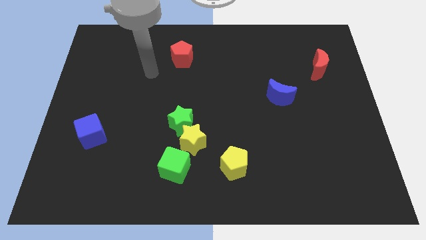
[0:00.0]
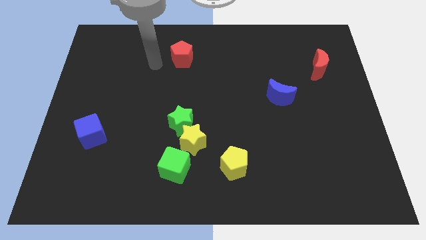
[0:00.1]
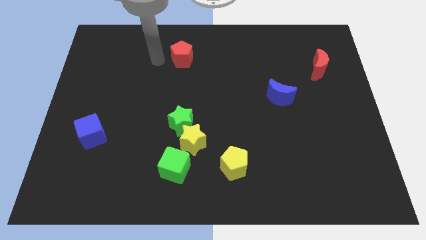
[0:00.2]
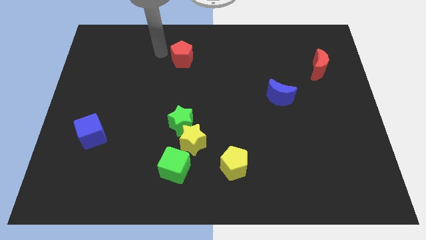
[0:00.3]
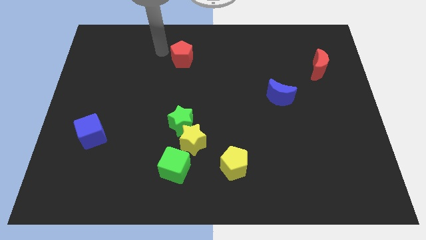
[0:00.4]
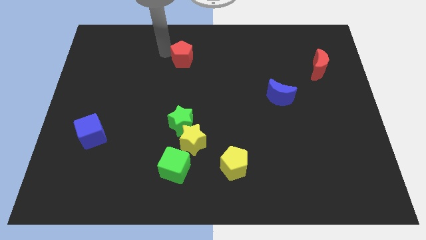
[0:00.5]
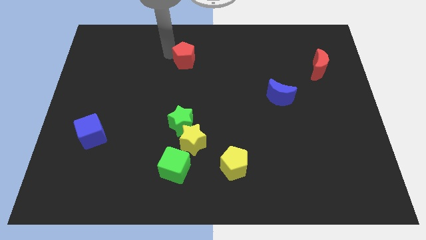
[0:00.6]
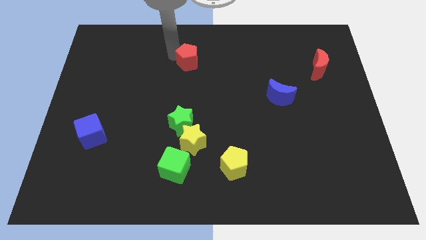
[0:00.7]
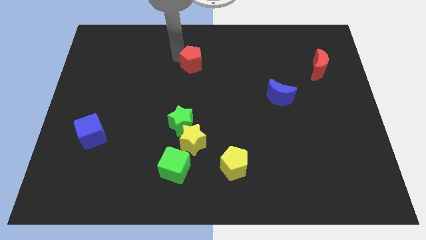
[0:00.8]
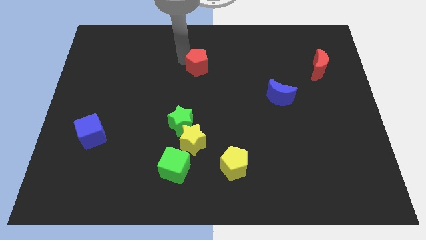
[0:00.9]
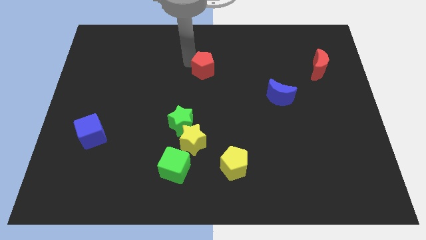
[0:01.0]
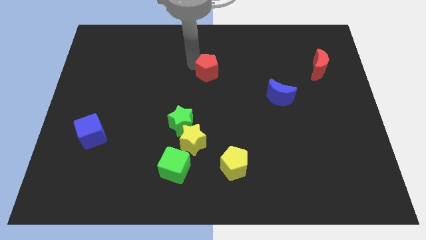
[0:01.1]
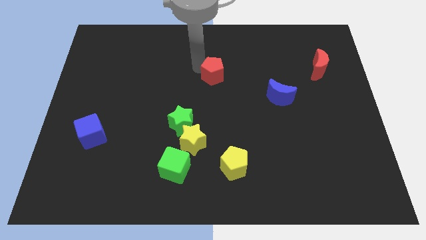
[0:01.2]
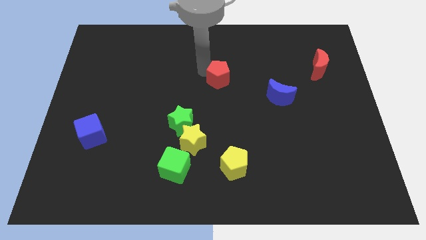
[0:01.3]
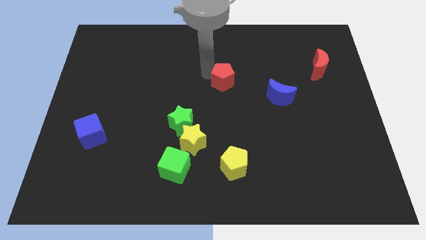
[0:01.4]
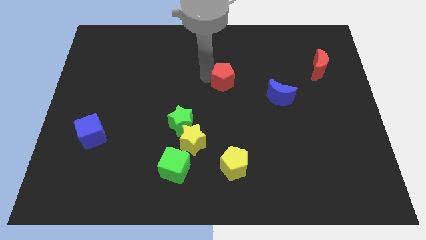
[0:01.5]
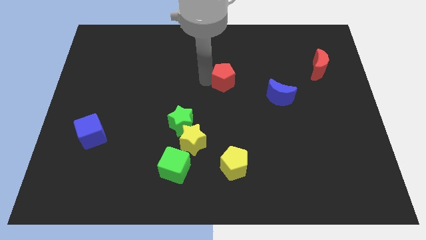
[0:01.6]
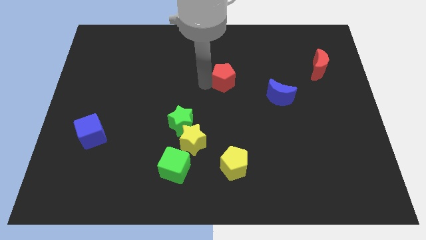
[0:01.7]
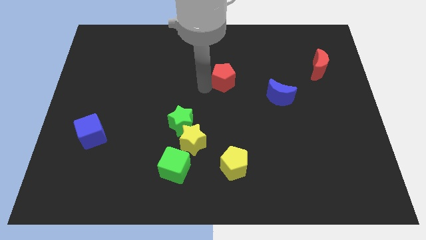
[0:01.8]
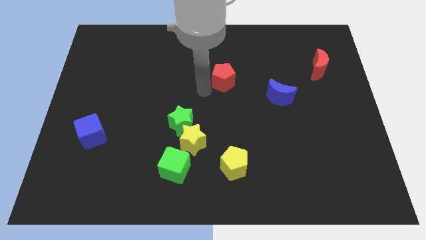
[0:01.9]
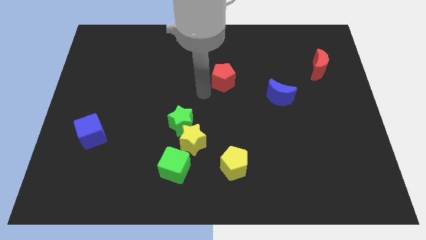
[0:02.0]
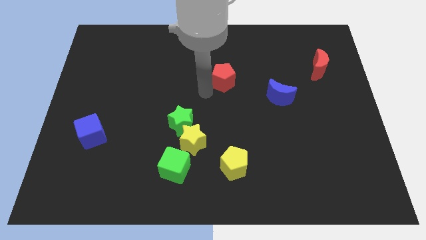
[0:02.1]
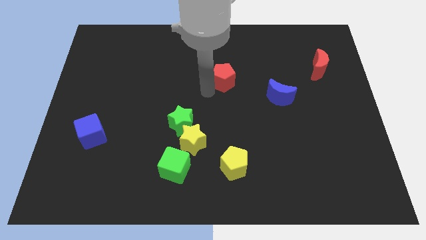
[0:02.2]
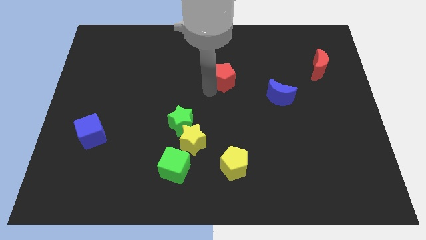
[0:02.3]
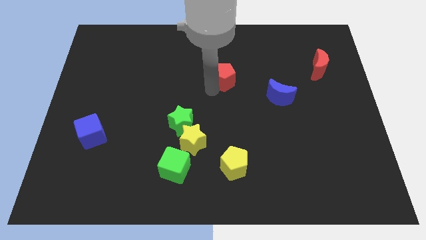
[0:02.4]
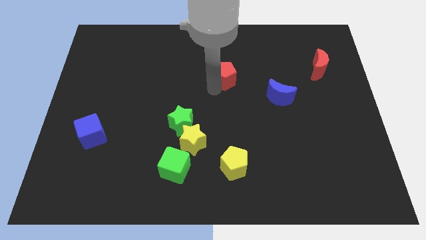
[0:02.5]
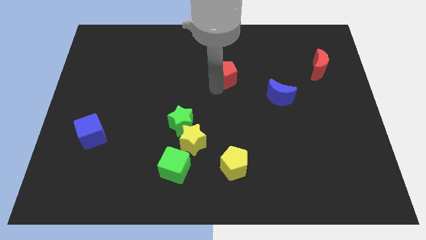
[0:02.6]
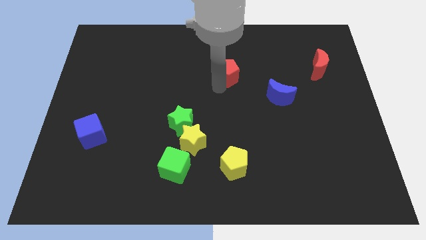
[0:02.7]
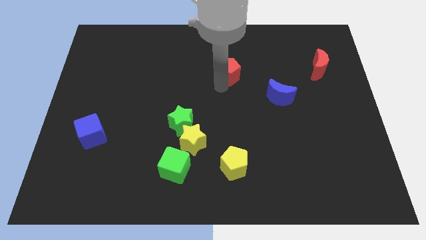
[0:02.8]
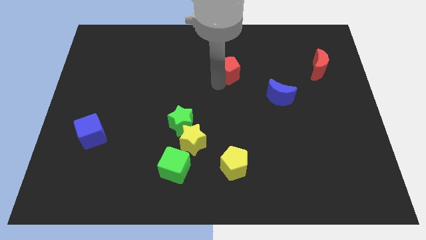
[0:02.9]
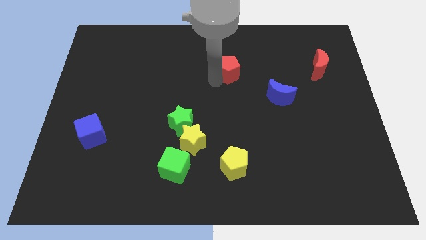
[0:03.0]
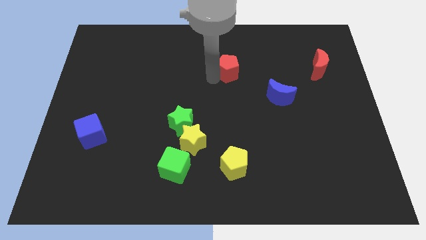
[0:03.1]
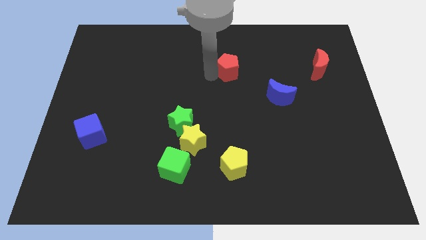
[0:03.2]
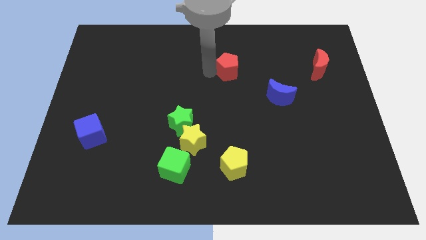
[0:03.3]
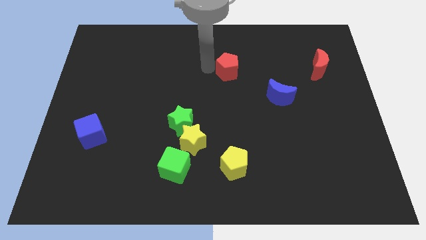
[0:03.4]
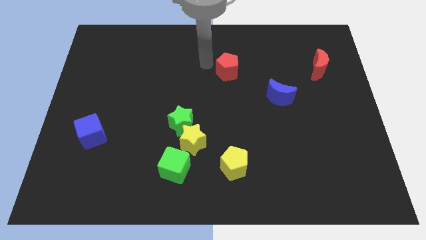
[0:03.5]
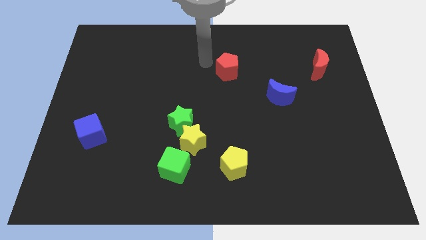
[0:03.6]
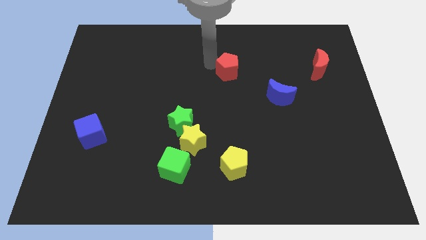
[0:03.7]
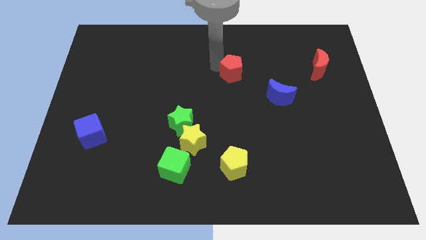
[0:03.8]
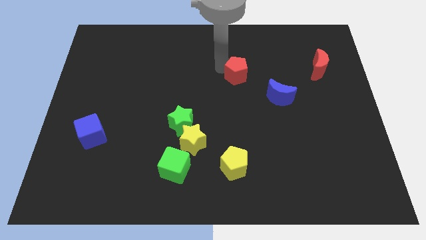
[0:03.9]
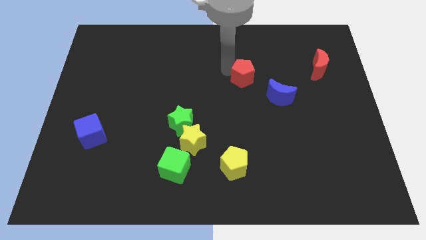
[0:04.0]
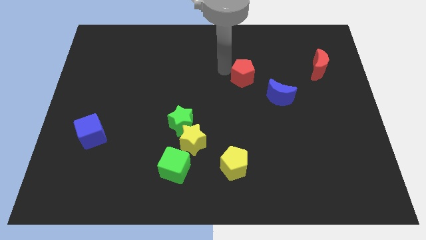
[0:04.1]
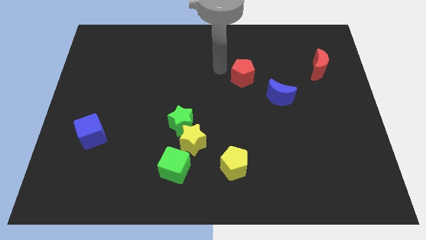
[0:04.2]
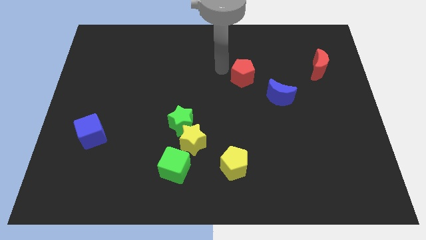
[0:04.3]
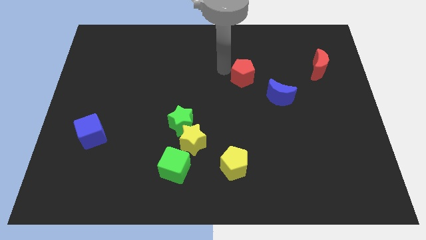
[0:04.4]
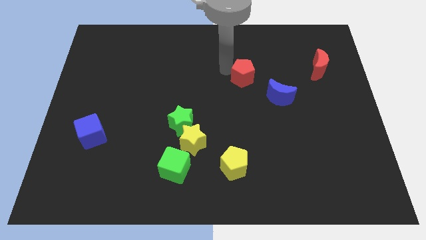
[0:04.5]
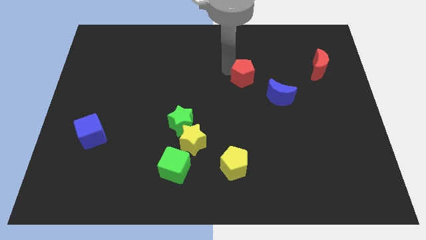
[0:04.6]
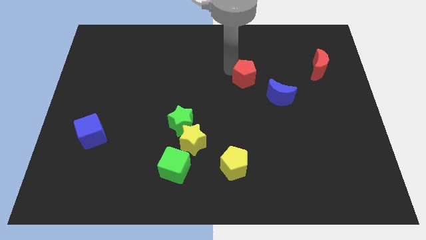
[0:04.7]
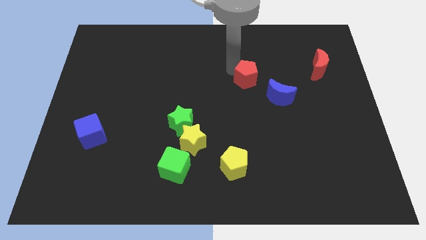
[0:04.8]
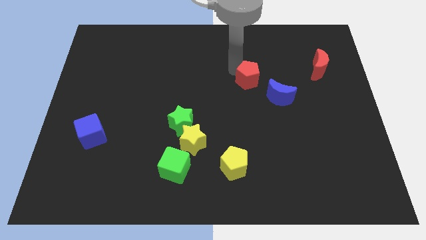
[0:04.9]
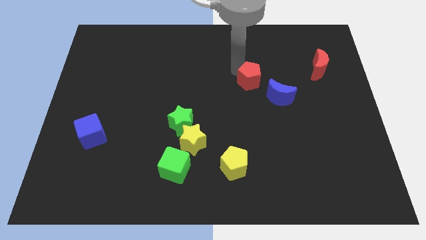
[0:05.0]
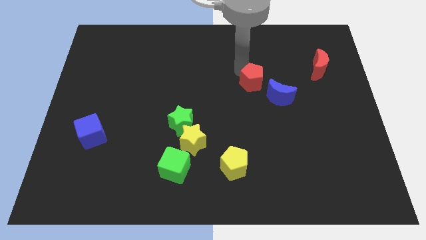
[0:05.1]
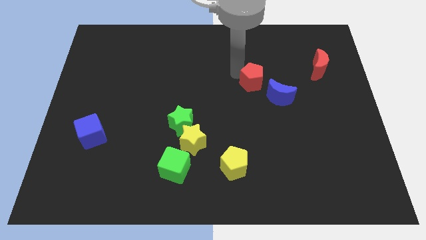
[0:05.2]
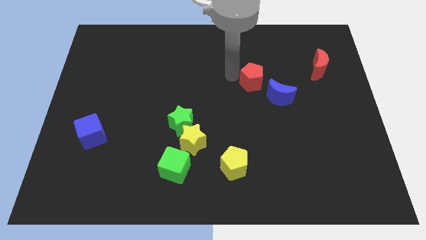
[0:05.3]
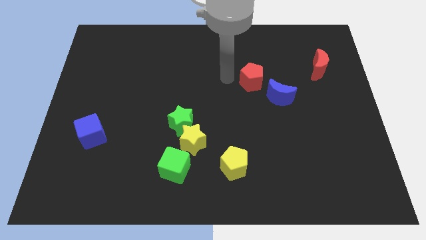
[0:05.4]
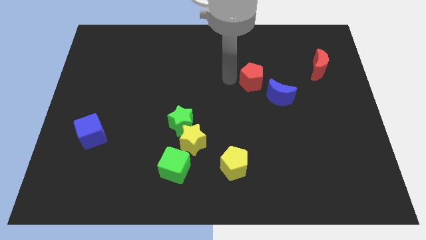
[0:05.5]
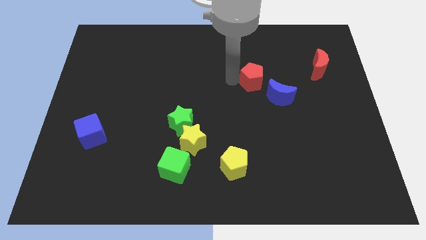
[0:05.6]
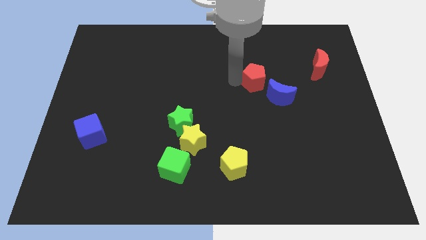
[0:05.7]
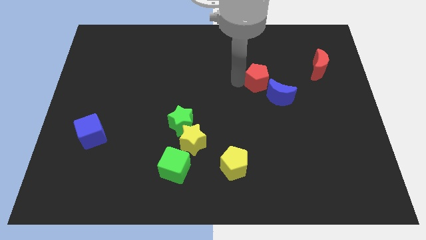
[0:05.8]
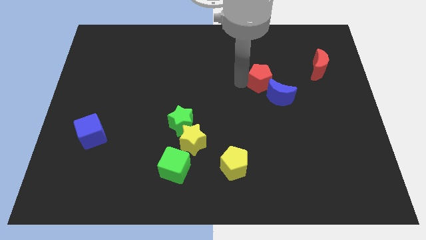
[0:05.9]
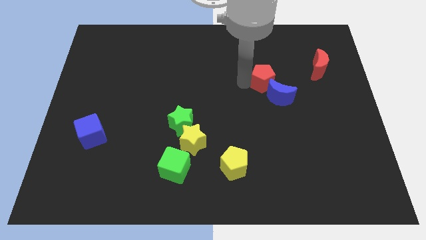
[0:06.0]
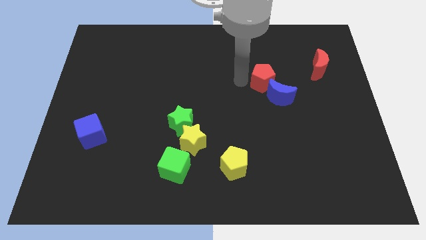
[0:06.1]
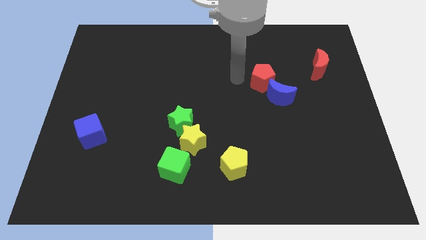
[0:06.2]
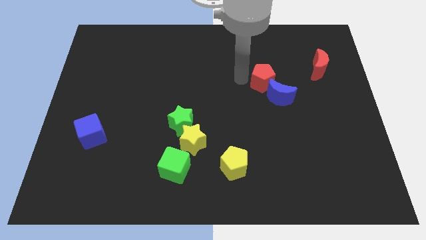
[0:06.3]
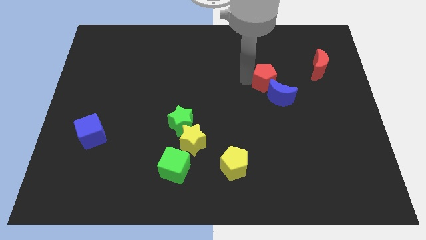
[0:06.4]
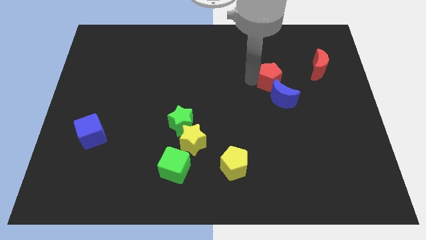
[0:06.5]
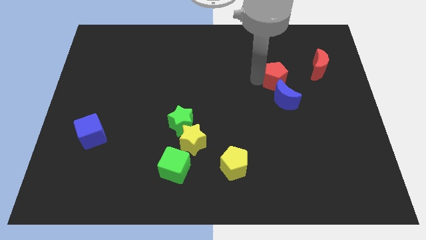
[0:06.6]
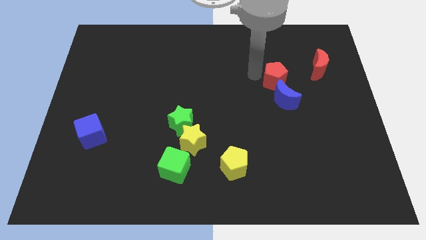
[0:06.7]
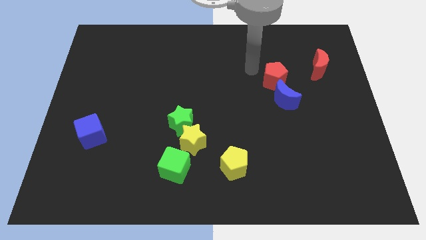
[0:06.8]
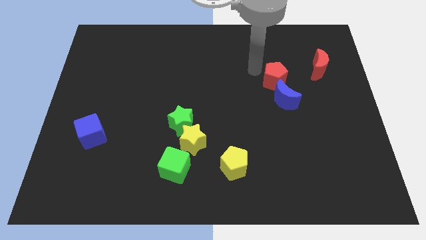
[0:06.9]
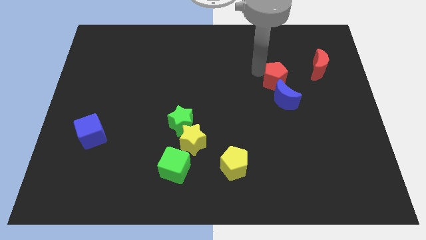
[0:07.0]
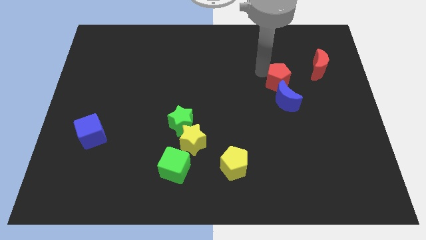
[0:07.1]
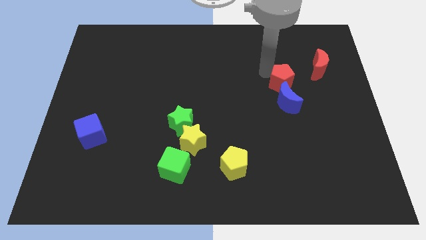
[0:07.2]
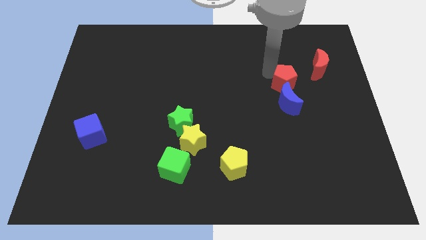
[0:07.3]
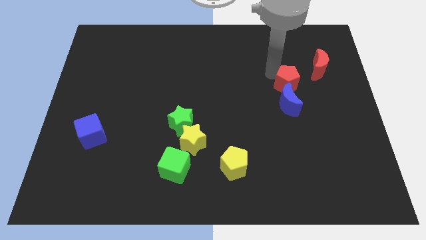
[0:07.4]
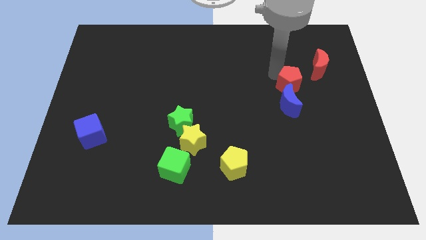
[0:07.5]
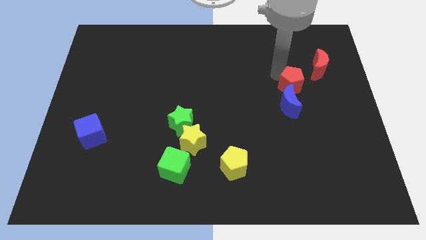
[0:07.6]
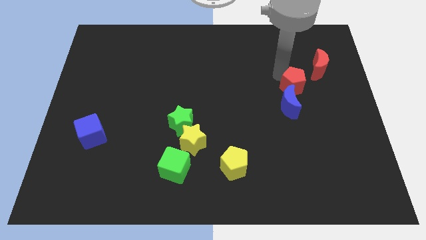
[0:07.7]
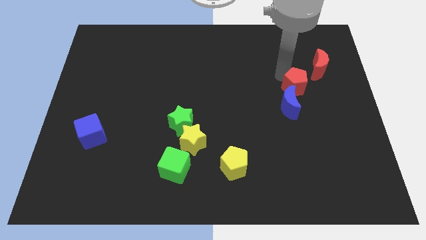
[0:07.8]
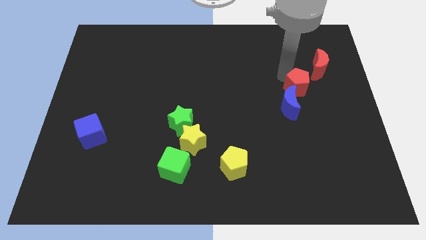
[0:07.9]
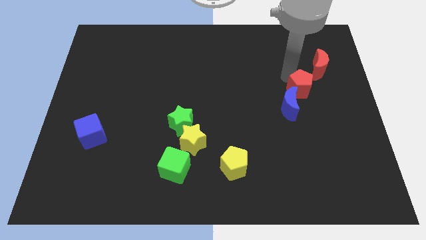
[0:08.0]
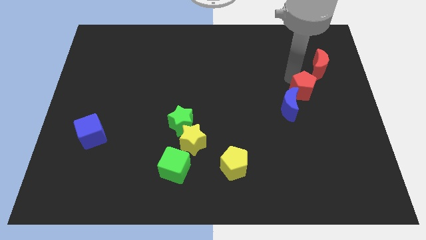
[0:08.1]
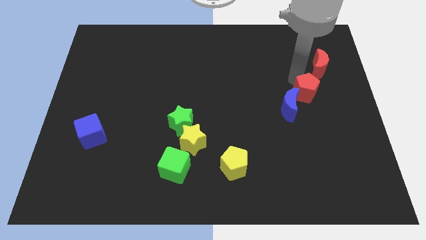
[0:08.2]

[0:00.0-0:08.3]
slide the red pentagon just right of the blue moon
